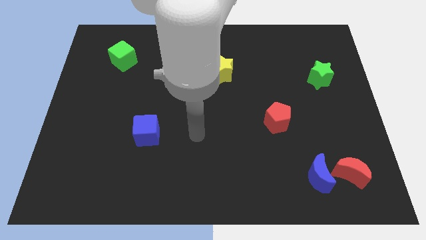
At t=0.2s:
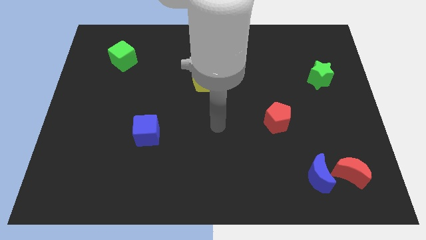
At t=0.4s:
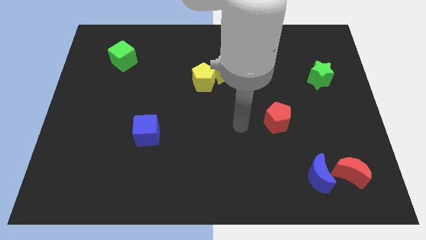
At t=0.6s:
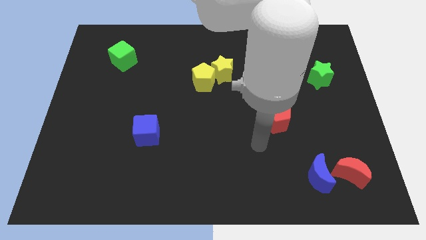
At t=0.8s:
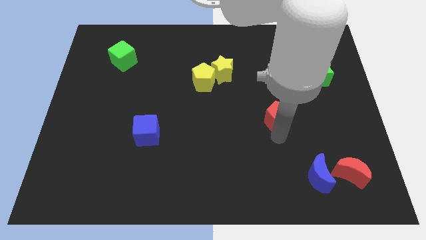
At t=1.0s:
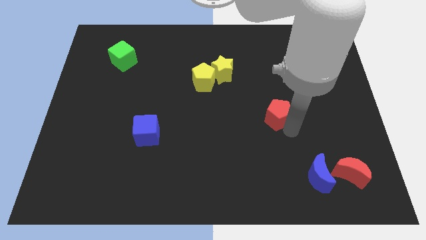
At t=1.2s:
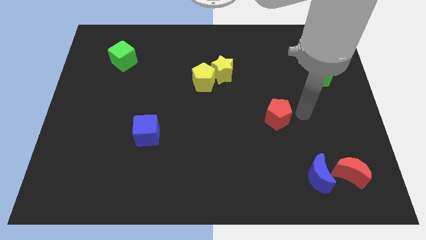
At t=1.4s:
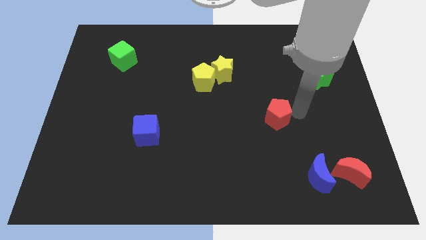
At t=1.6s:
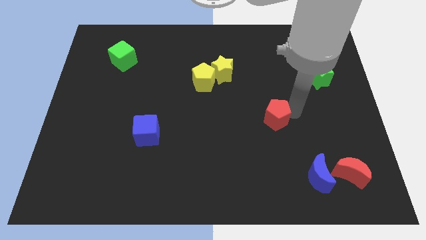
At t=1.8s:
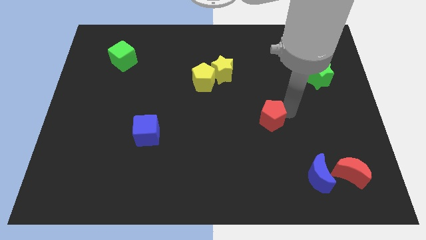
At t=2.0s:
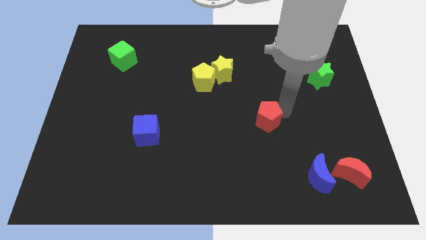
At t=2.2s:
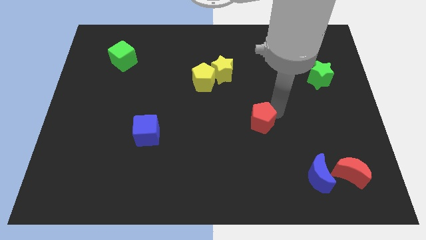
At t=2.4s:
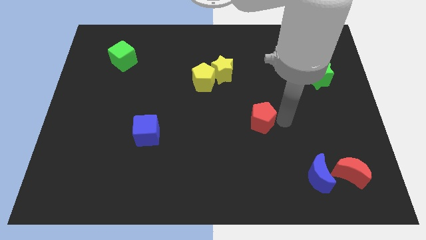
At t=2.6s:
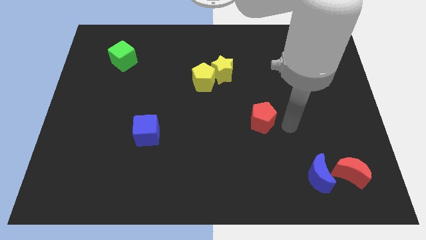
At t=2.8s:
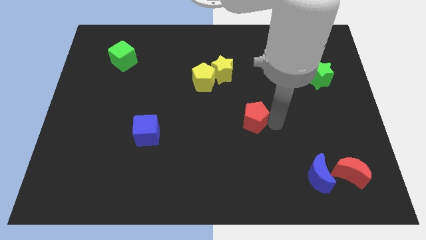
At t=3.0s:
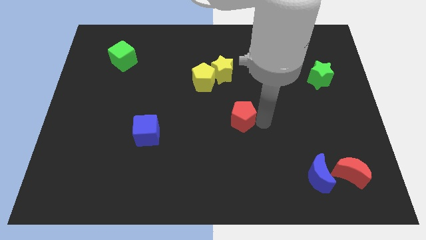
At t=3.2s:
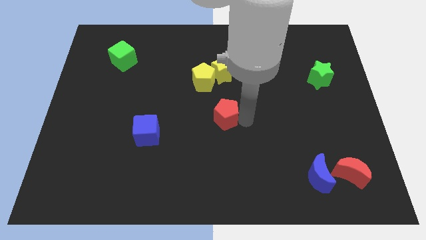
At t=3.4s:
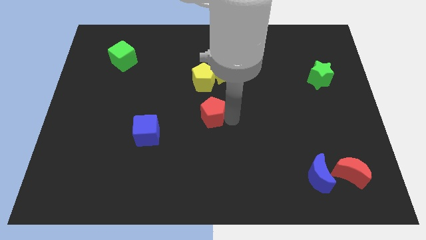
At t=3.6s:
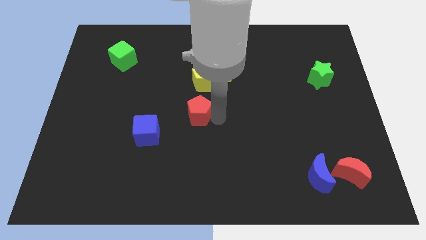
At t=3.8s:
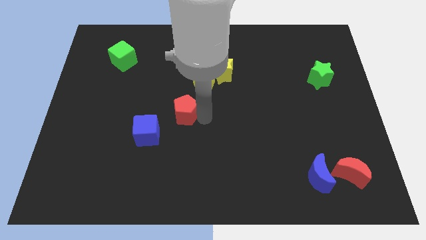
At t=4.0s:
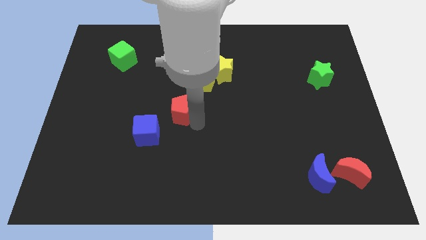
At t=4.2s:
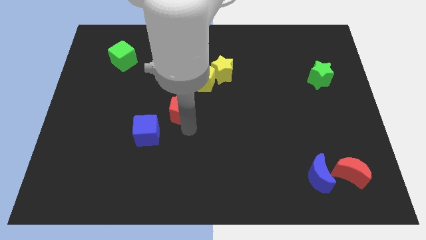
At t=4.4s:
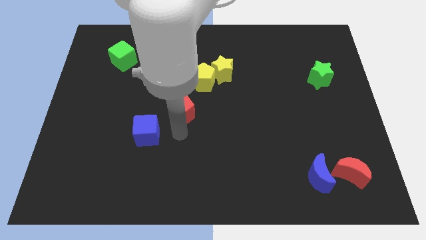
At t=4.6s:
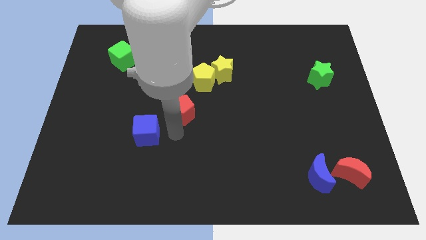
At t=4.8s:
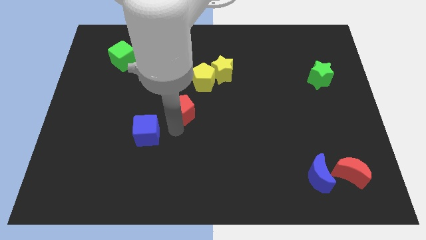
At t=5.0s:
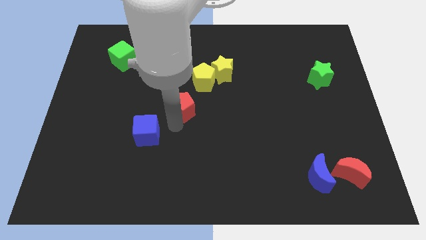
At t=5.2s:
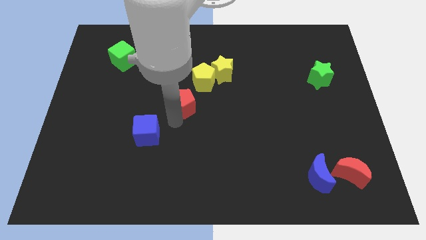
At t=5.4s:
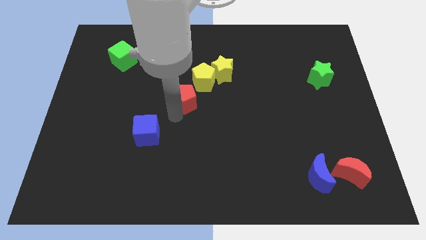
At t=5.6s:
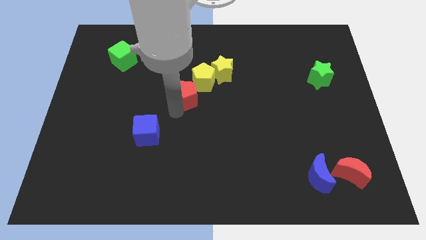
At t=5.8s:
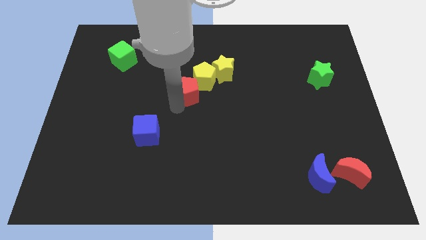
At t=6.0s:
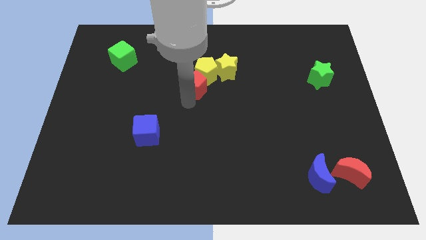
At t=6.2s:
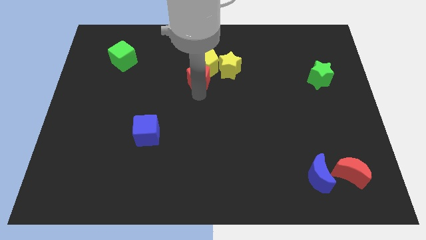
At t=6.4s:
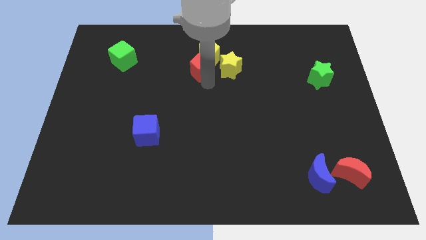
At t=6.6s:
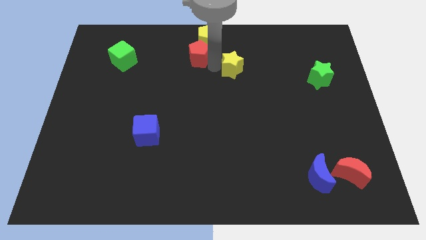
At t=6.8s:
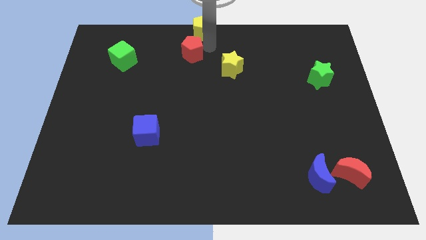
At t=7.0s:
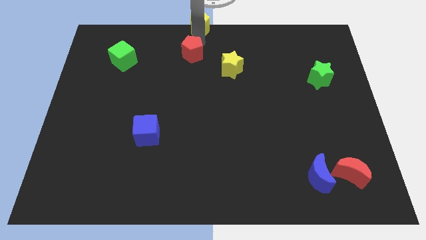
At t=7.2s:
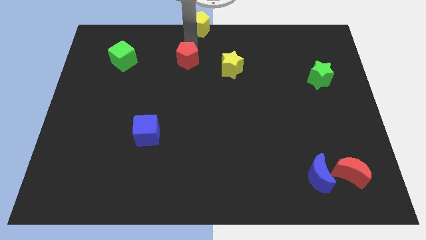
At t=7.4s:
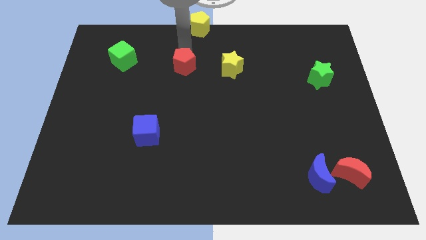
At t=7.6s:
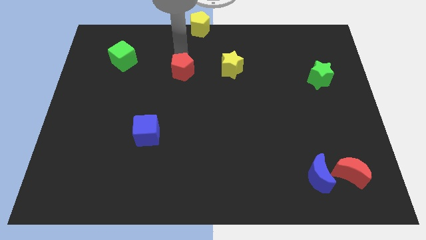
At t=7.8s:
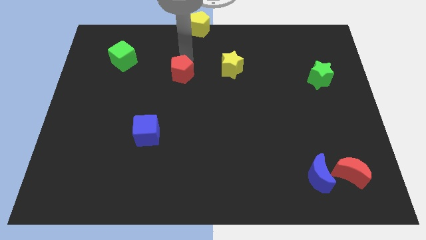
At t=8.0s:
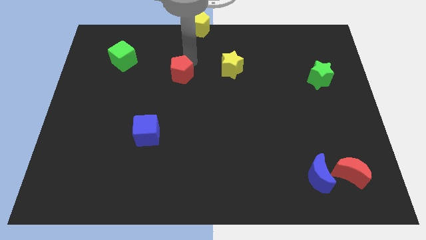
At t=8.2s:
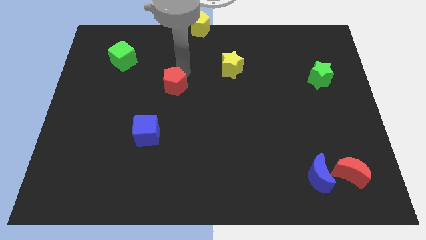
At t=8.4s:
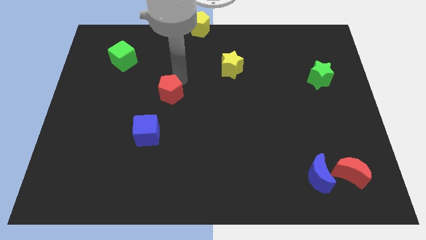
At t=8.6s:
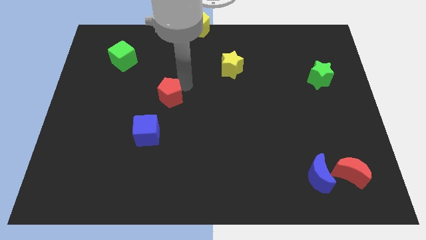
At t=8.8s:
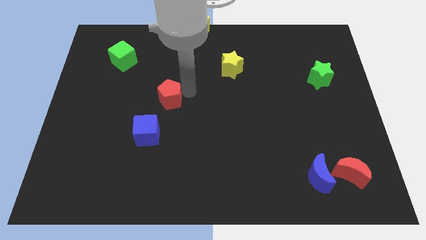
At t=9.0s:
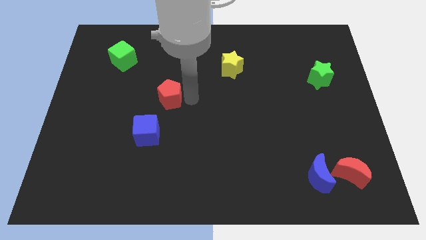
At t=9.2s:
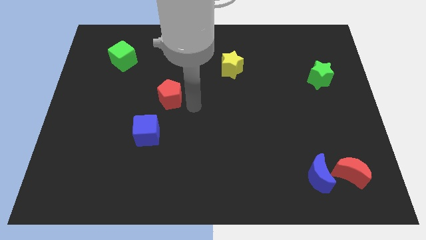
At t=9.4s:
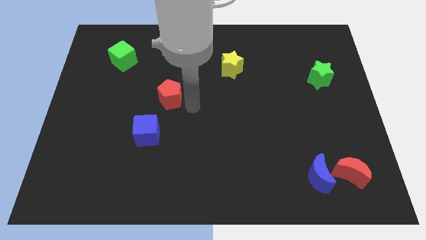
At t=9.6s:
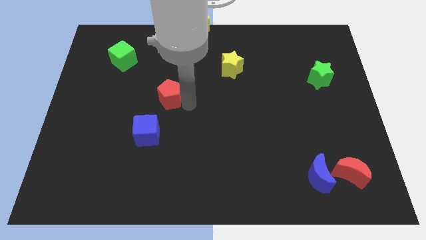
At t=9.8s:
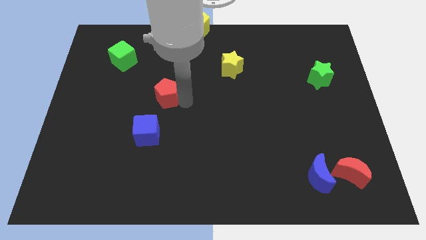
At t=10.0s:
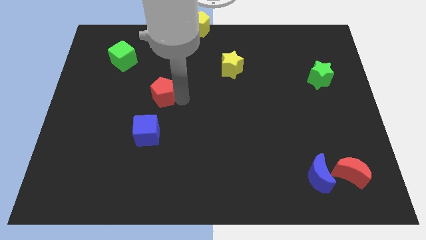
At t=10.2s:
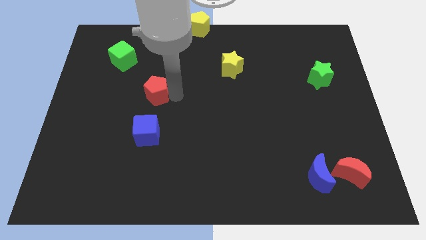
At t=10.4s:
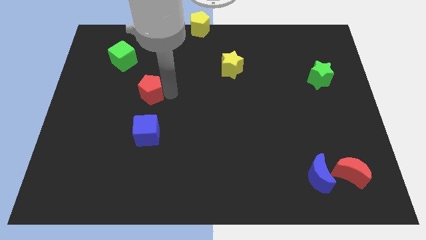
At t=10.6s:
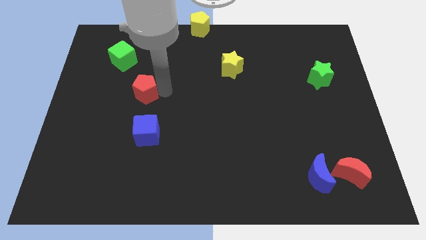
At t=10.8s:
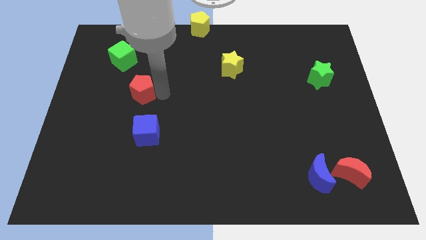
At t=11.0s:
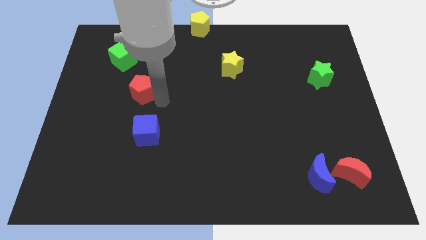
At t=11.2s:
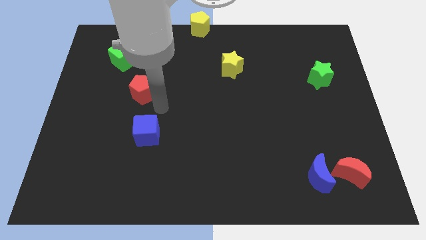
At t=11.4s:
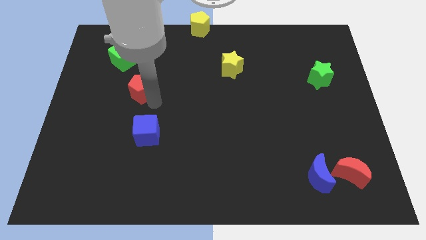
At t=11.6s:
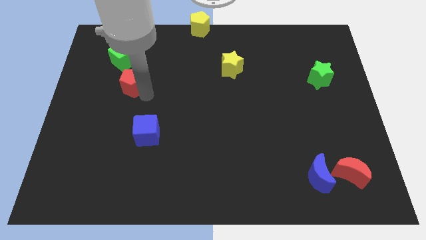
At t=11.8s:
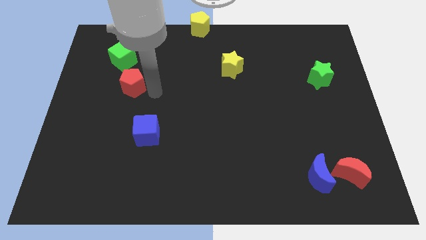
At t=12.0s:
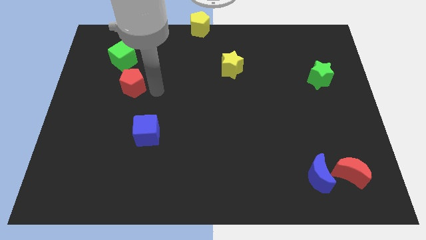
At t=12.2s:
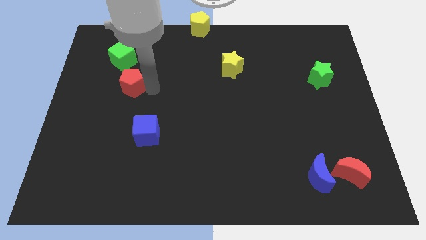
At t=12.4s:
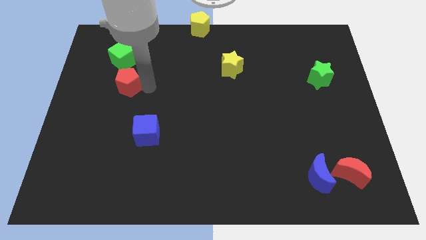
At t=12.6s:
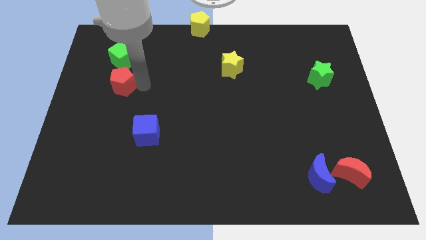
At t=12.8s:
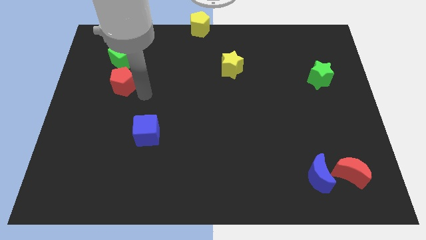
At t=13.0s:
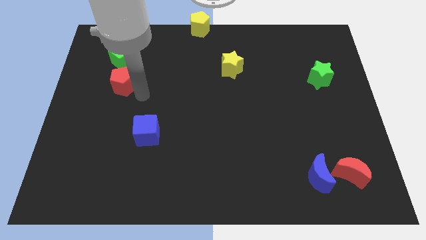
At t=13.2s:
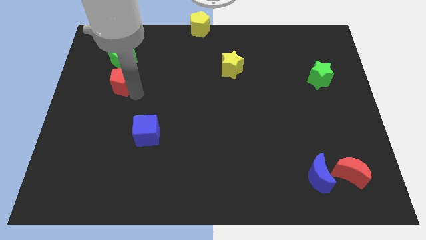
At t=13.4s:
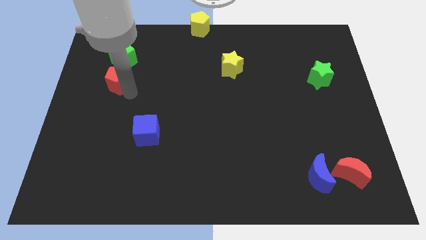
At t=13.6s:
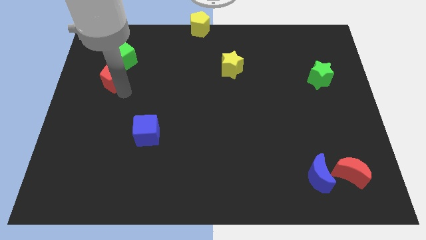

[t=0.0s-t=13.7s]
move the red pentagon diagonally down and to the left of the green cube
